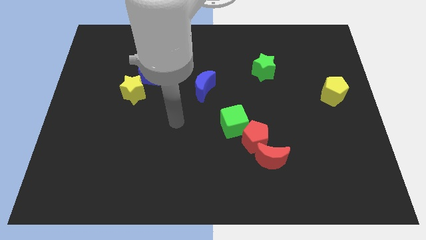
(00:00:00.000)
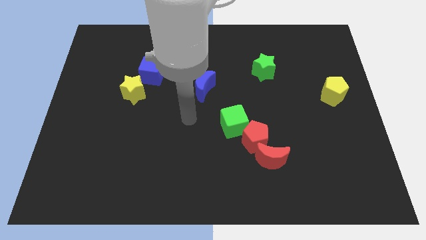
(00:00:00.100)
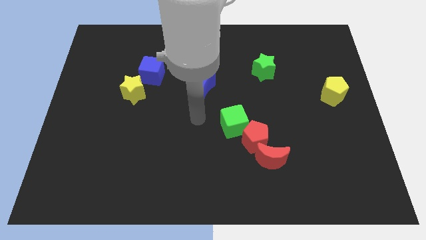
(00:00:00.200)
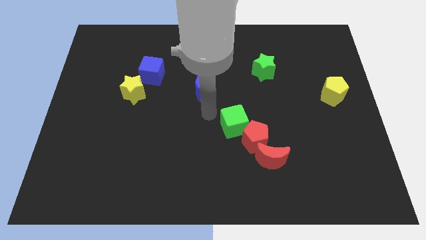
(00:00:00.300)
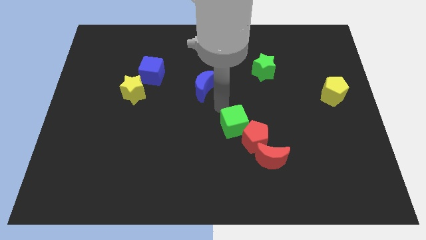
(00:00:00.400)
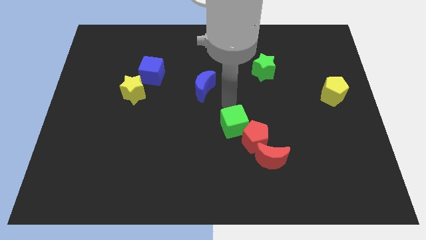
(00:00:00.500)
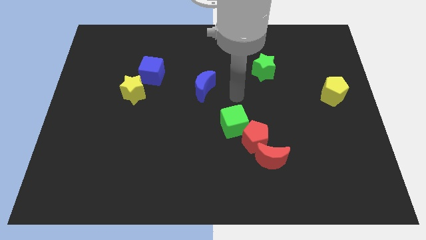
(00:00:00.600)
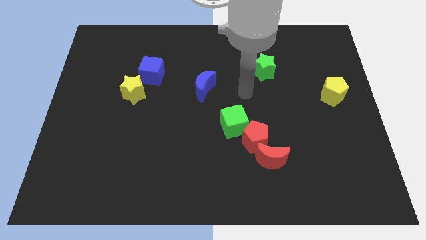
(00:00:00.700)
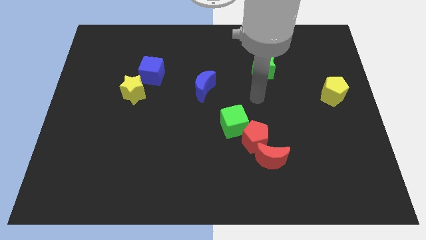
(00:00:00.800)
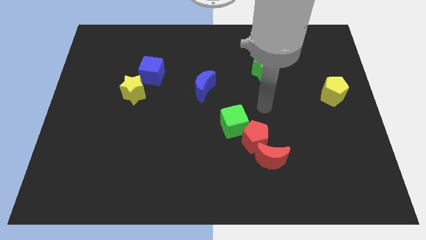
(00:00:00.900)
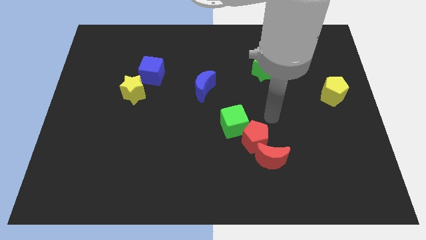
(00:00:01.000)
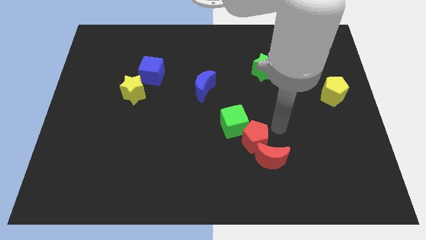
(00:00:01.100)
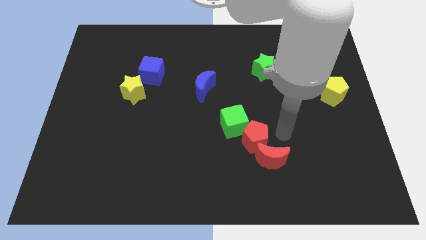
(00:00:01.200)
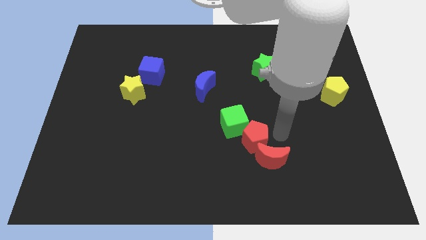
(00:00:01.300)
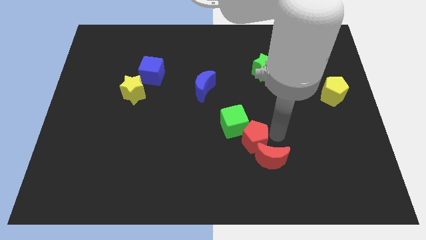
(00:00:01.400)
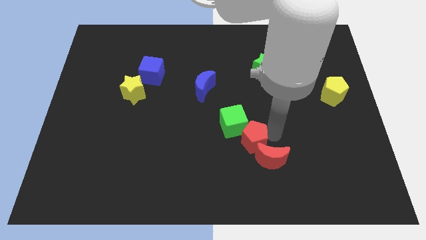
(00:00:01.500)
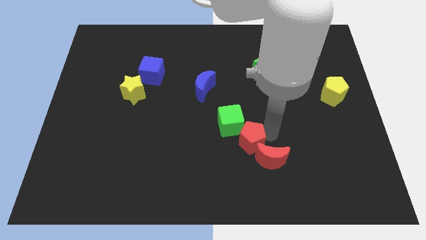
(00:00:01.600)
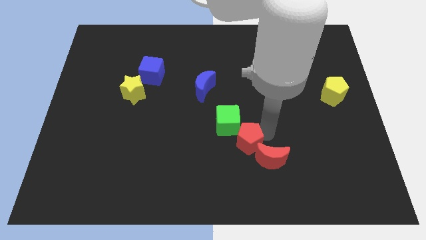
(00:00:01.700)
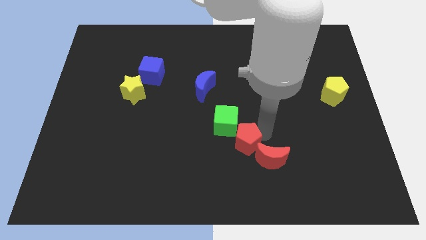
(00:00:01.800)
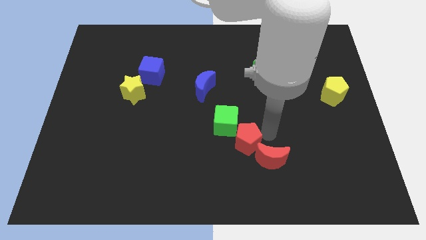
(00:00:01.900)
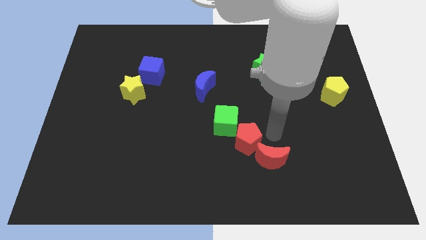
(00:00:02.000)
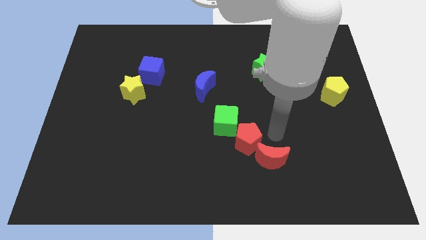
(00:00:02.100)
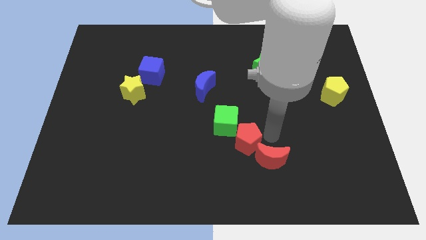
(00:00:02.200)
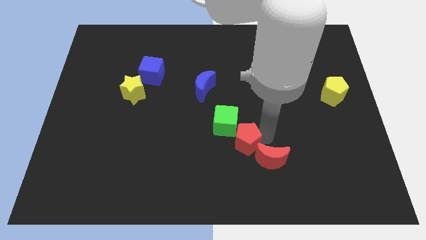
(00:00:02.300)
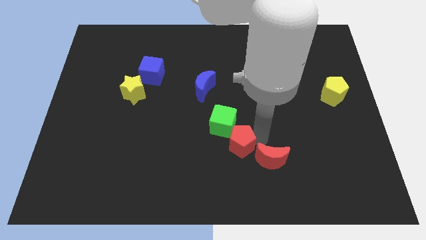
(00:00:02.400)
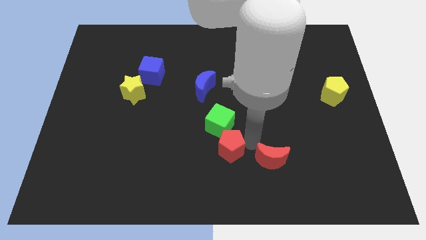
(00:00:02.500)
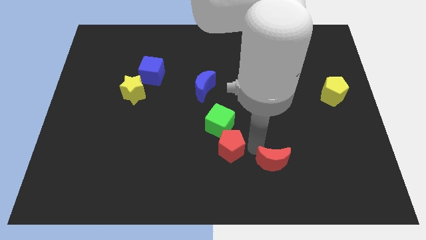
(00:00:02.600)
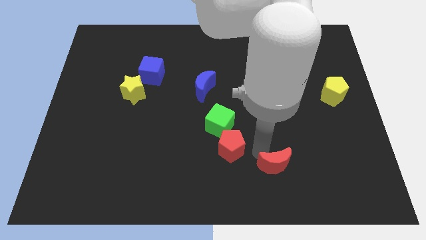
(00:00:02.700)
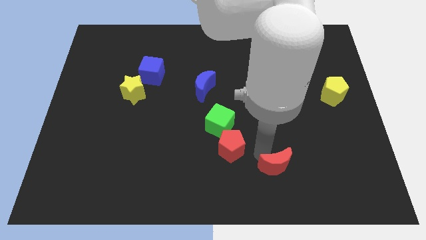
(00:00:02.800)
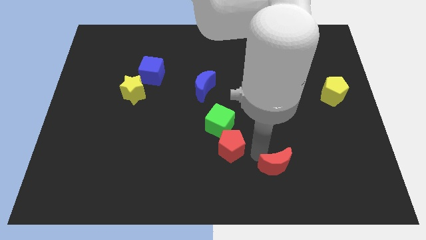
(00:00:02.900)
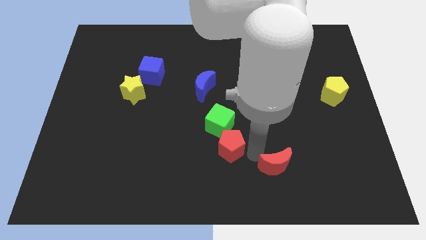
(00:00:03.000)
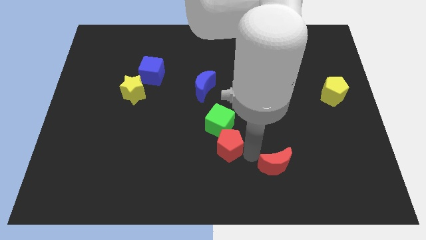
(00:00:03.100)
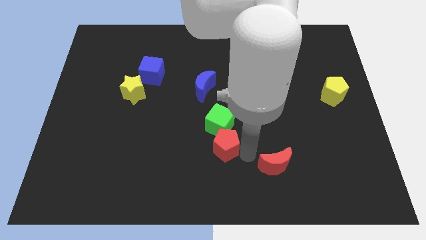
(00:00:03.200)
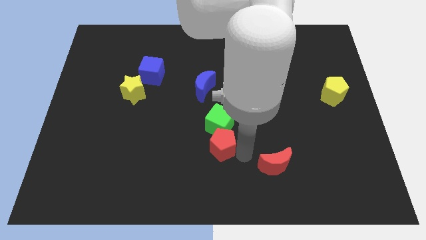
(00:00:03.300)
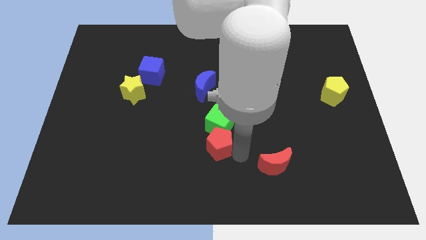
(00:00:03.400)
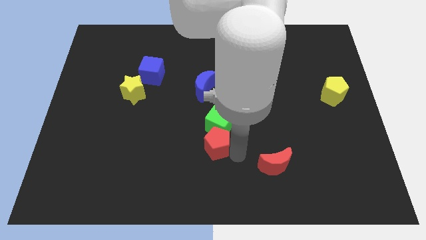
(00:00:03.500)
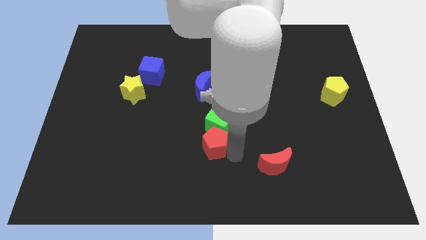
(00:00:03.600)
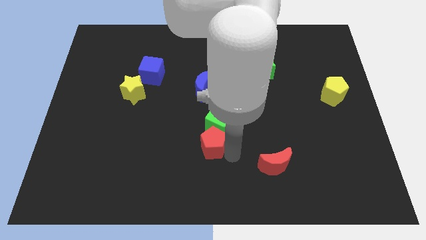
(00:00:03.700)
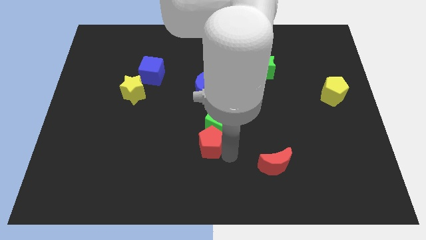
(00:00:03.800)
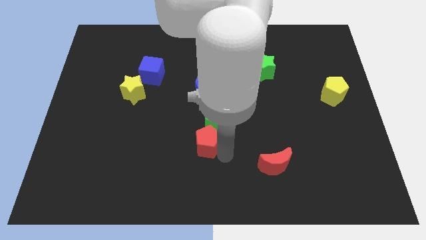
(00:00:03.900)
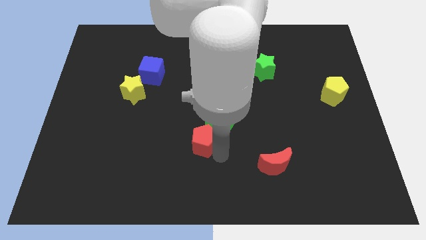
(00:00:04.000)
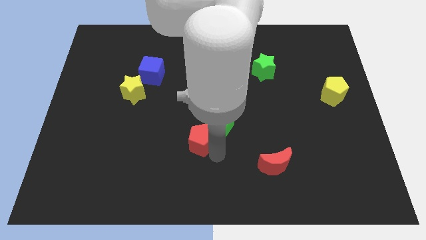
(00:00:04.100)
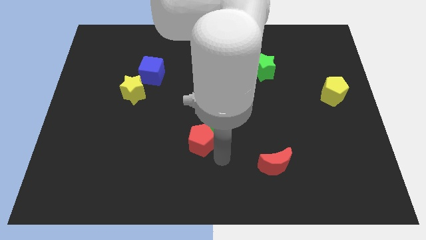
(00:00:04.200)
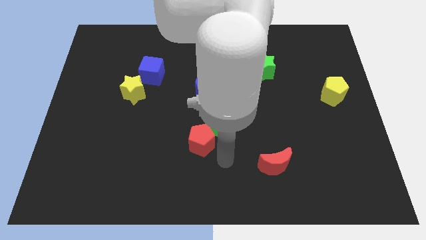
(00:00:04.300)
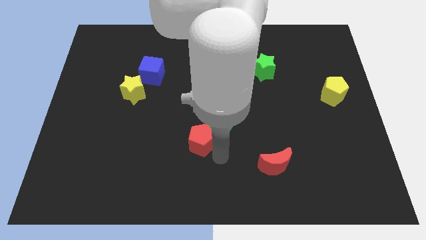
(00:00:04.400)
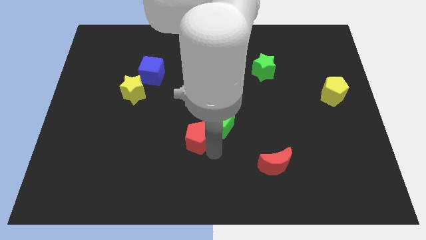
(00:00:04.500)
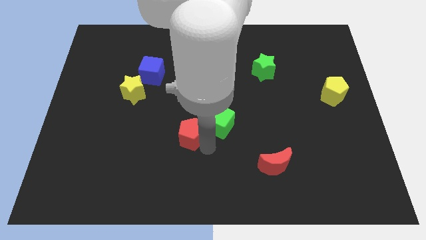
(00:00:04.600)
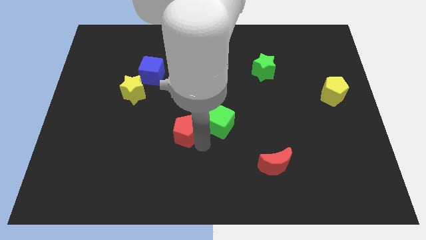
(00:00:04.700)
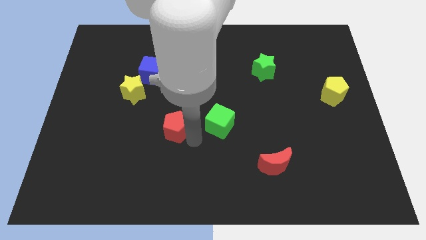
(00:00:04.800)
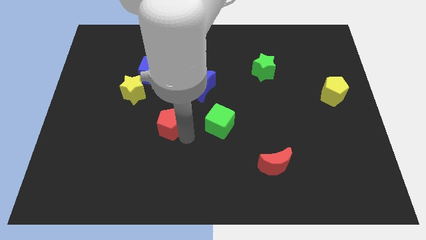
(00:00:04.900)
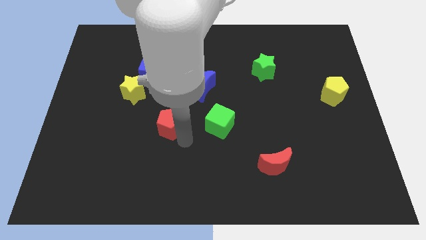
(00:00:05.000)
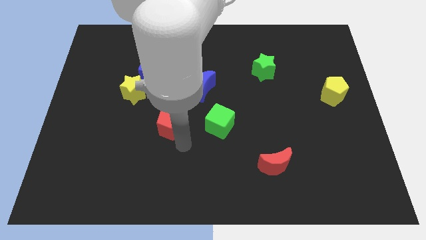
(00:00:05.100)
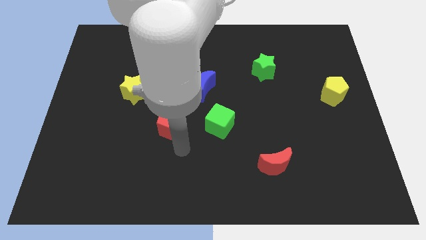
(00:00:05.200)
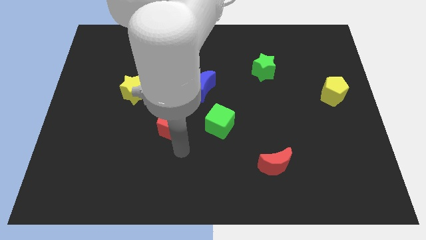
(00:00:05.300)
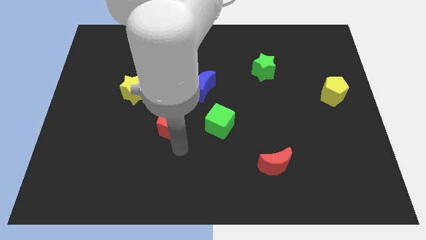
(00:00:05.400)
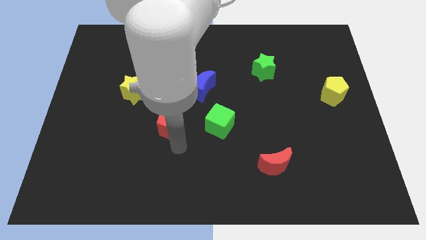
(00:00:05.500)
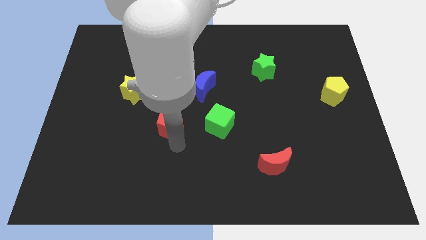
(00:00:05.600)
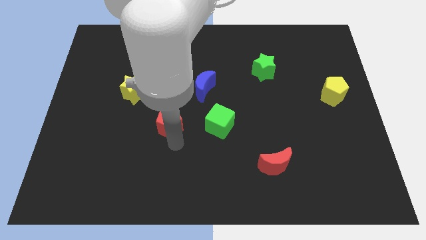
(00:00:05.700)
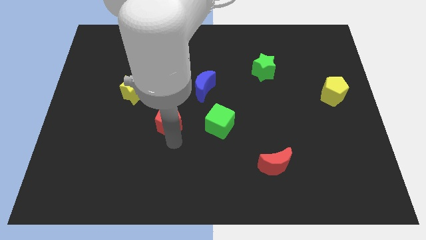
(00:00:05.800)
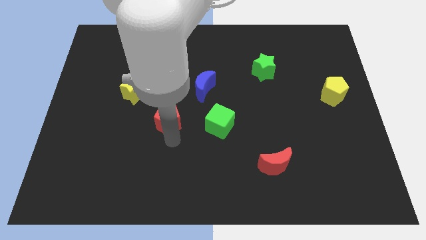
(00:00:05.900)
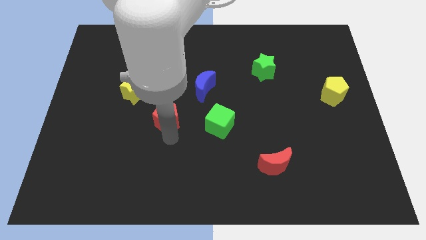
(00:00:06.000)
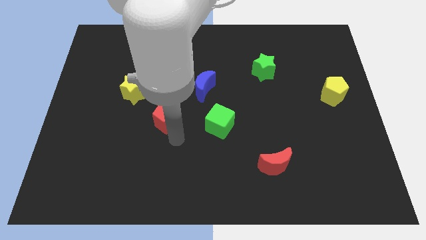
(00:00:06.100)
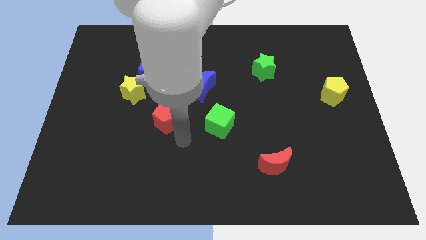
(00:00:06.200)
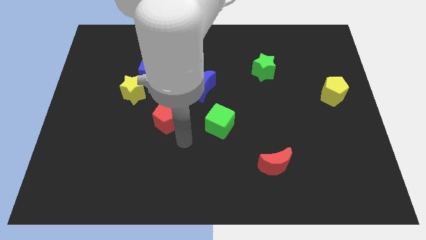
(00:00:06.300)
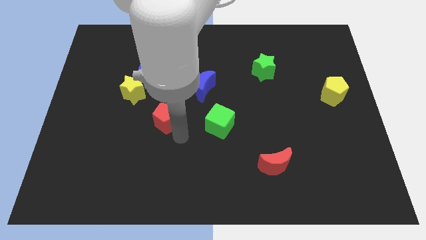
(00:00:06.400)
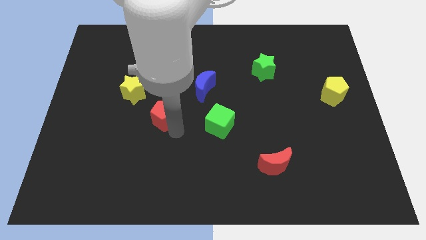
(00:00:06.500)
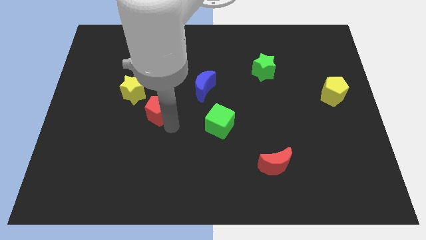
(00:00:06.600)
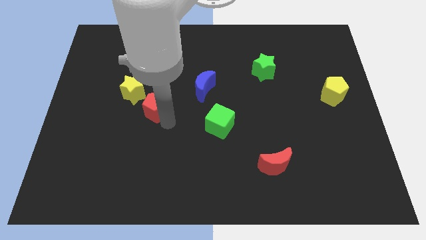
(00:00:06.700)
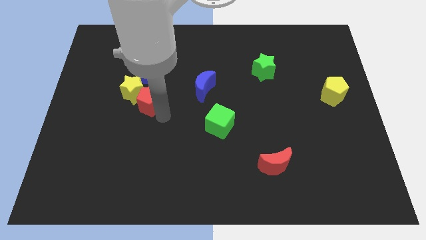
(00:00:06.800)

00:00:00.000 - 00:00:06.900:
slide the red pentagon towards the yellow star

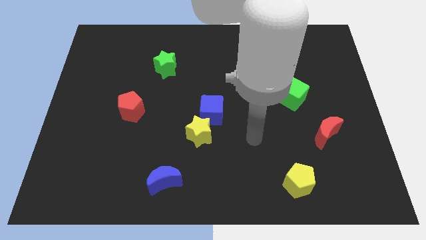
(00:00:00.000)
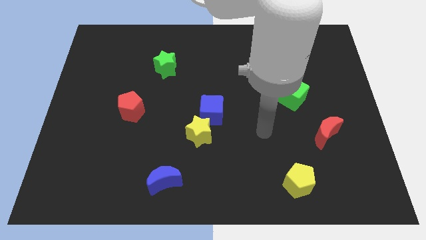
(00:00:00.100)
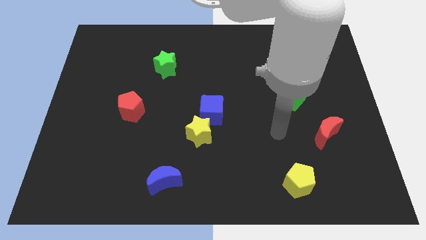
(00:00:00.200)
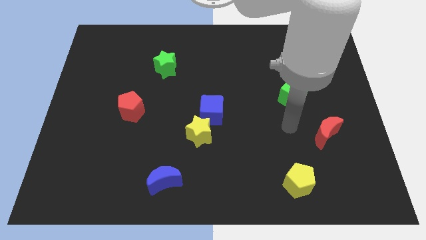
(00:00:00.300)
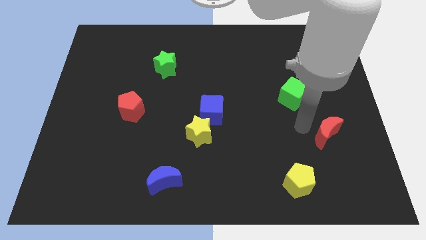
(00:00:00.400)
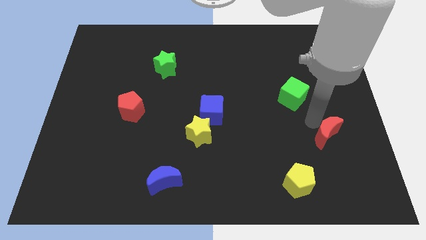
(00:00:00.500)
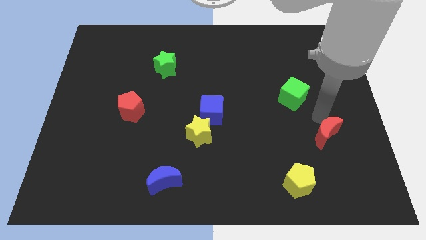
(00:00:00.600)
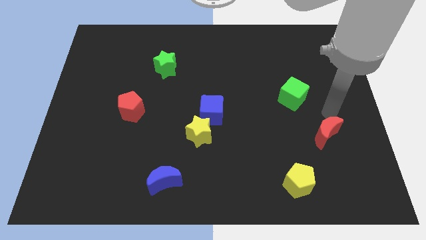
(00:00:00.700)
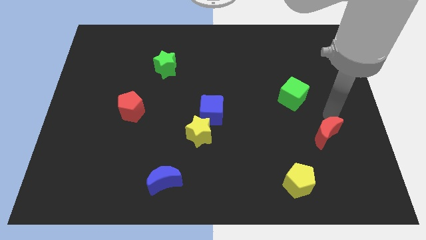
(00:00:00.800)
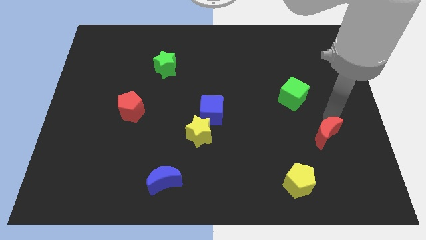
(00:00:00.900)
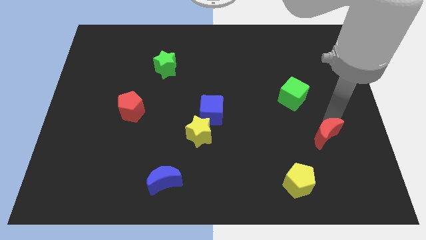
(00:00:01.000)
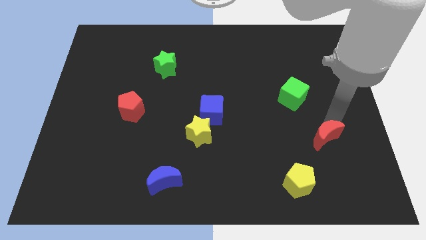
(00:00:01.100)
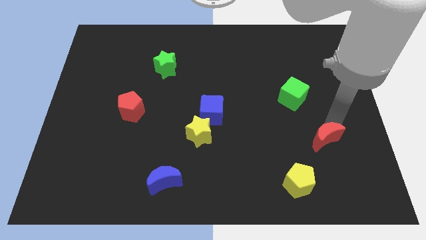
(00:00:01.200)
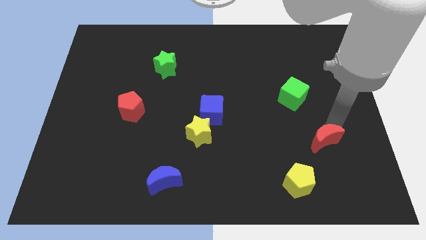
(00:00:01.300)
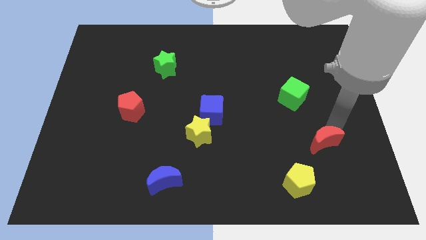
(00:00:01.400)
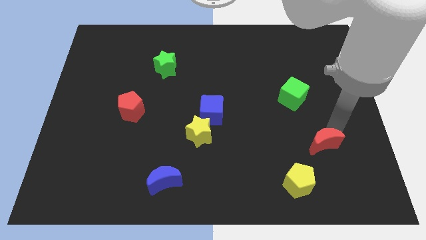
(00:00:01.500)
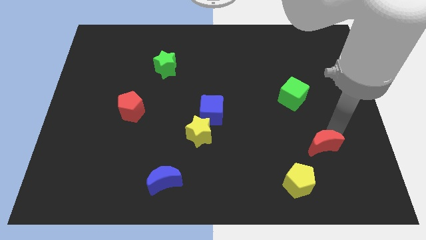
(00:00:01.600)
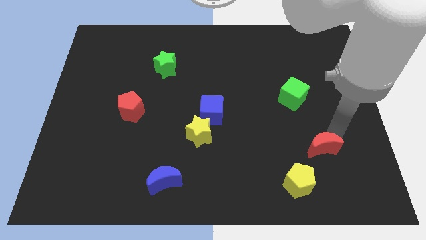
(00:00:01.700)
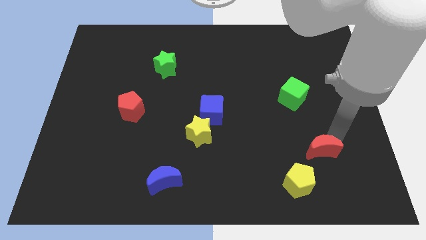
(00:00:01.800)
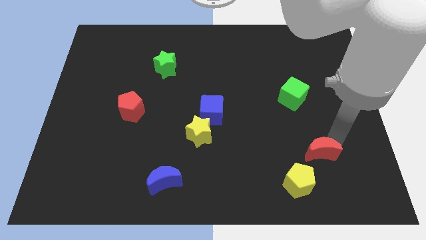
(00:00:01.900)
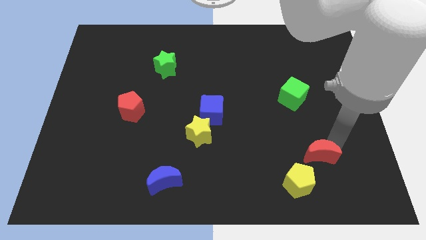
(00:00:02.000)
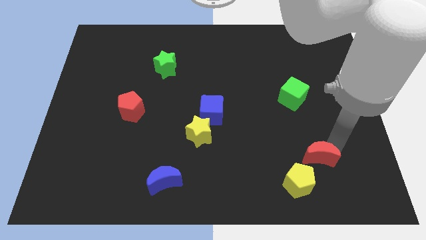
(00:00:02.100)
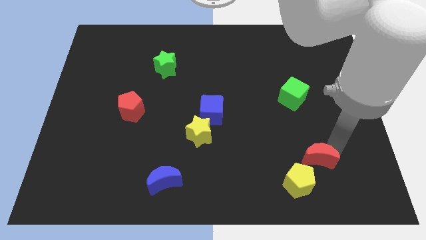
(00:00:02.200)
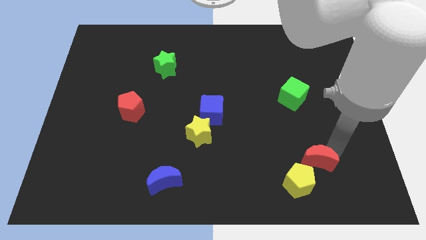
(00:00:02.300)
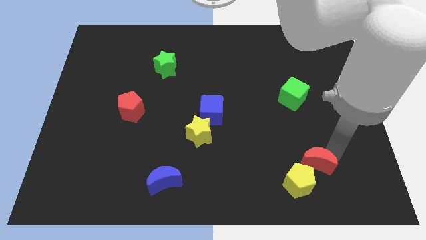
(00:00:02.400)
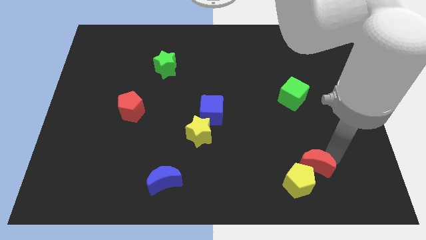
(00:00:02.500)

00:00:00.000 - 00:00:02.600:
put the red moon next to the yellow pentagon
